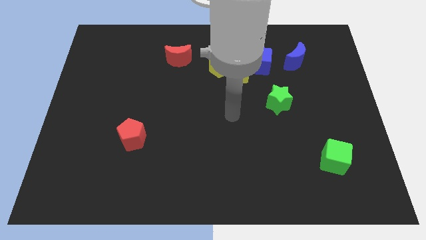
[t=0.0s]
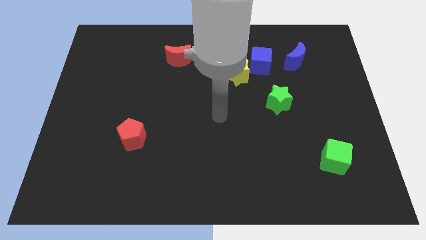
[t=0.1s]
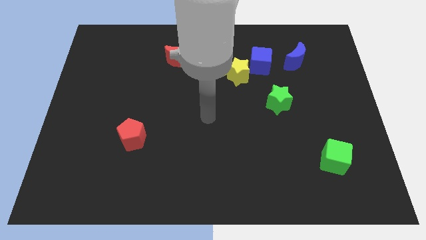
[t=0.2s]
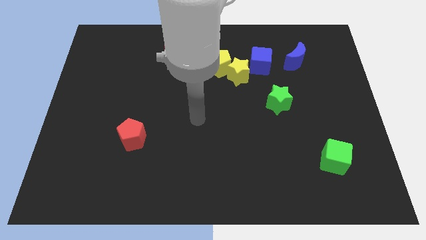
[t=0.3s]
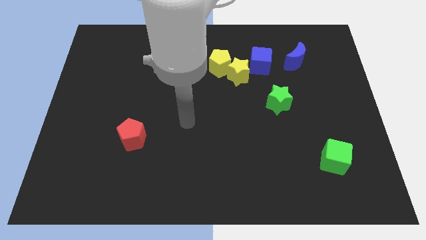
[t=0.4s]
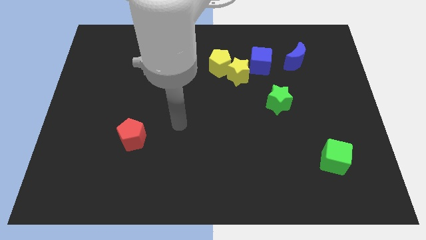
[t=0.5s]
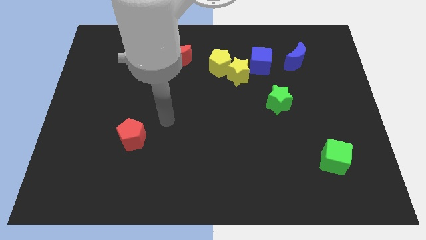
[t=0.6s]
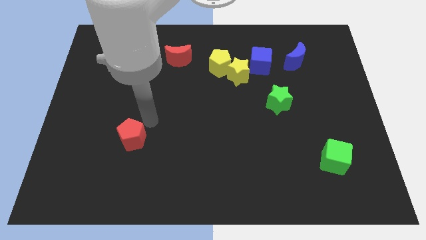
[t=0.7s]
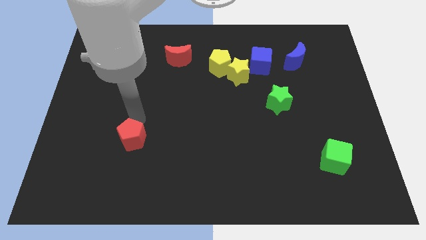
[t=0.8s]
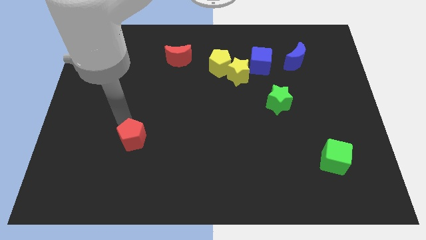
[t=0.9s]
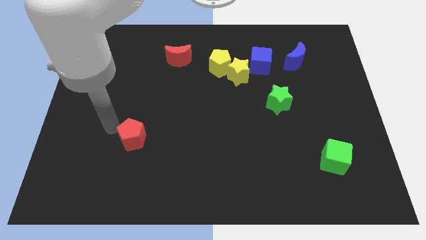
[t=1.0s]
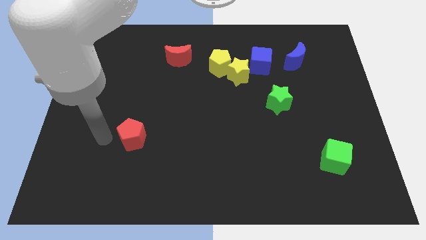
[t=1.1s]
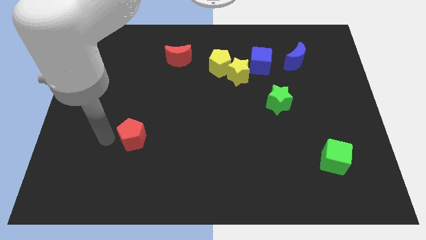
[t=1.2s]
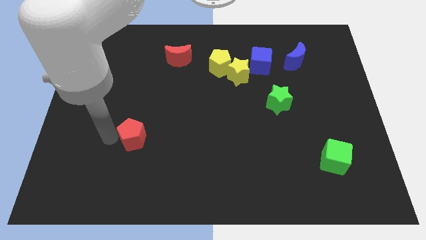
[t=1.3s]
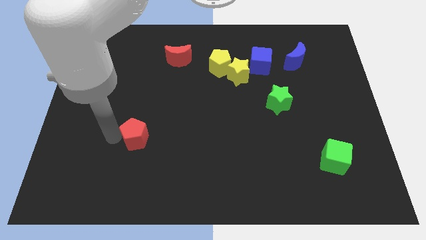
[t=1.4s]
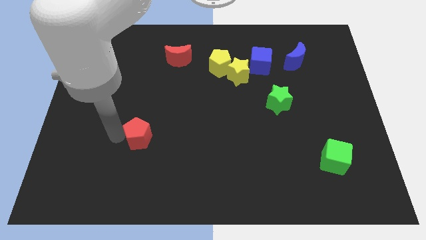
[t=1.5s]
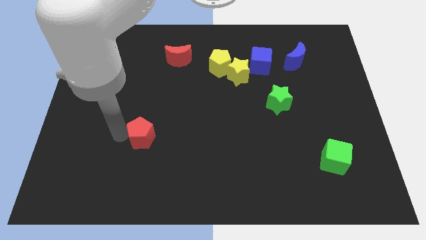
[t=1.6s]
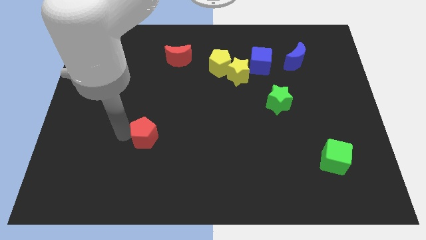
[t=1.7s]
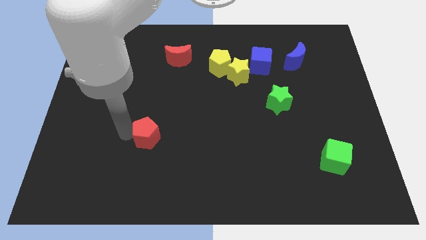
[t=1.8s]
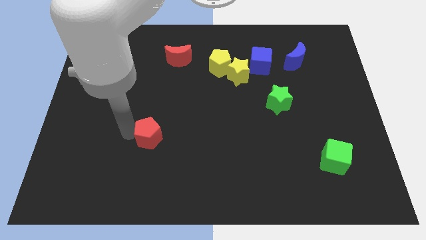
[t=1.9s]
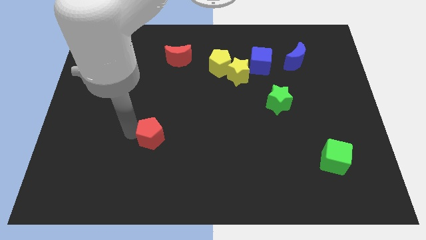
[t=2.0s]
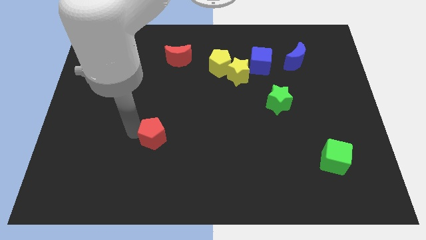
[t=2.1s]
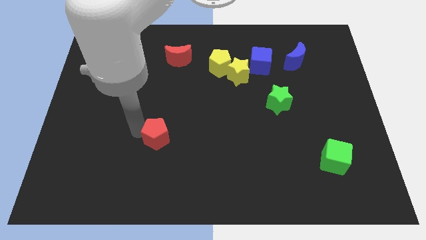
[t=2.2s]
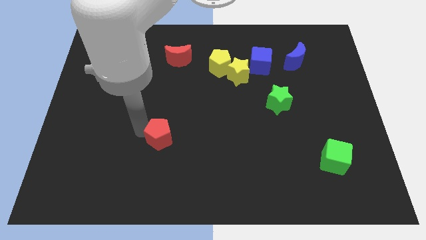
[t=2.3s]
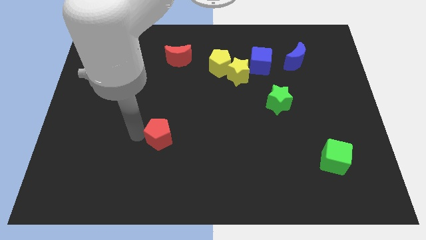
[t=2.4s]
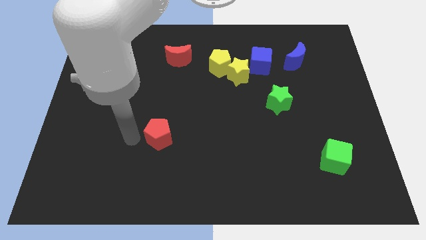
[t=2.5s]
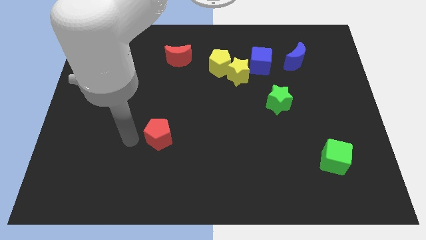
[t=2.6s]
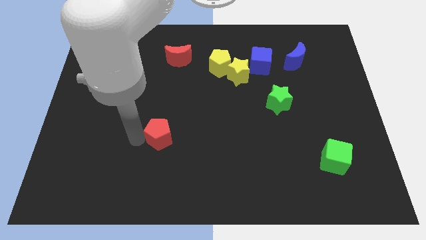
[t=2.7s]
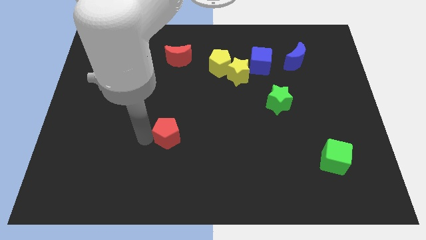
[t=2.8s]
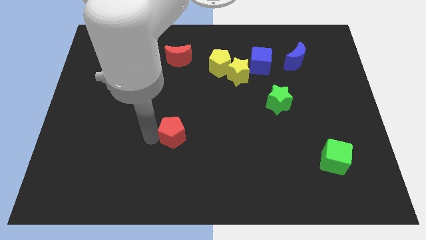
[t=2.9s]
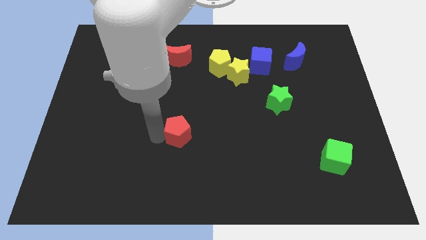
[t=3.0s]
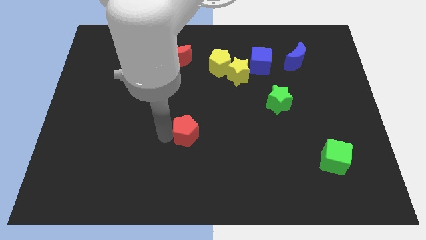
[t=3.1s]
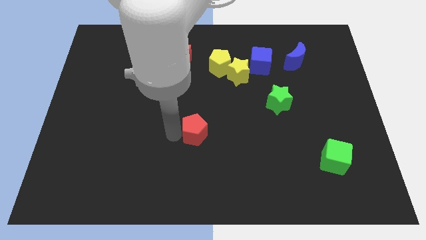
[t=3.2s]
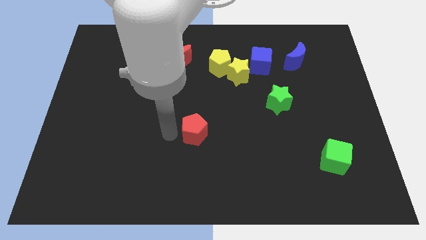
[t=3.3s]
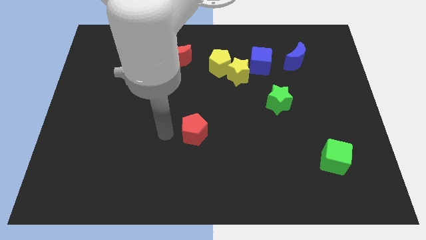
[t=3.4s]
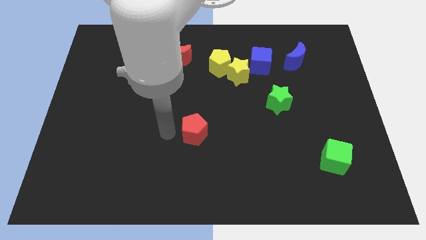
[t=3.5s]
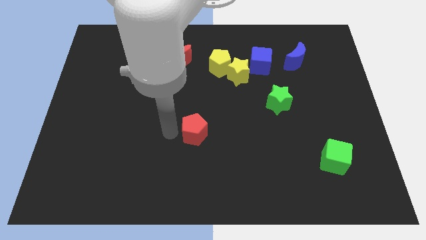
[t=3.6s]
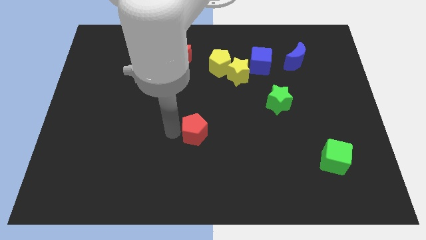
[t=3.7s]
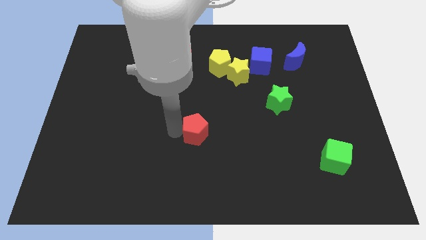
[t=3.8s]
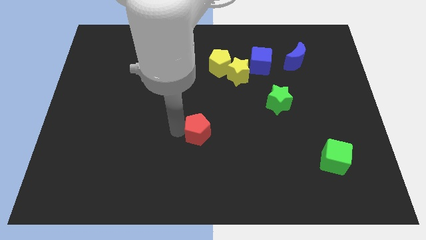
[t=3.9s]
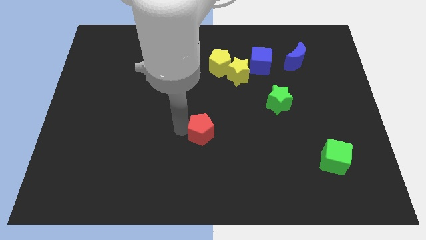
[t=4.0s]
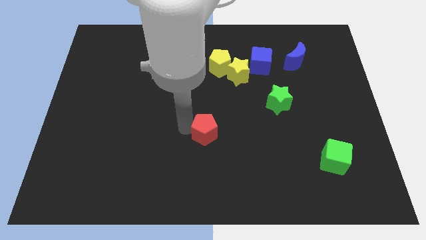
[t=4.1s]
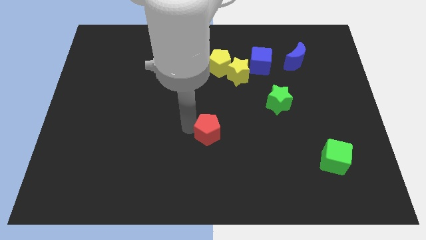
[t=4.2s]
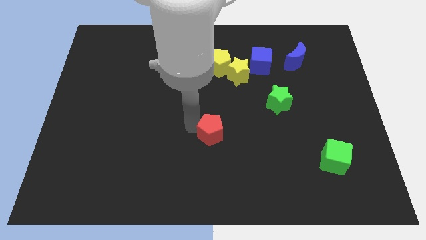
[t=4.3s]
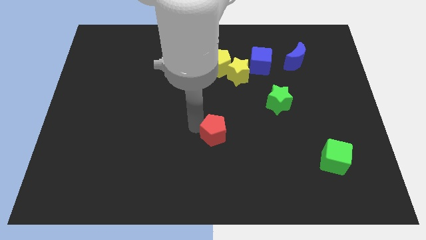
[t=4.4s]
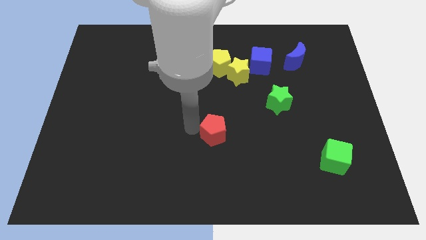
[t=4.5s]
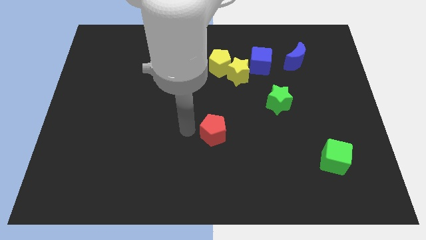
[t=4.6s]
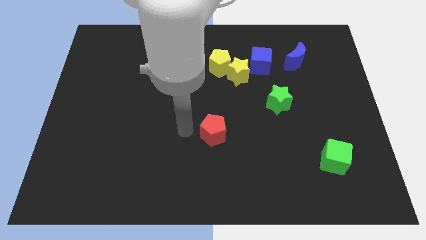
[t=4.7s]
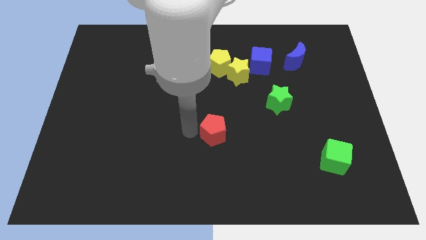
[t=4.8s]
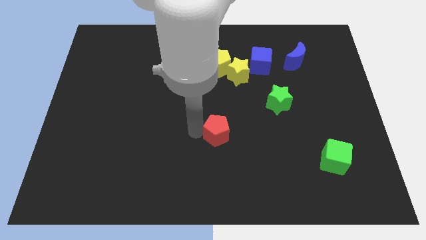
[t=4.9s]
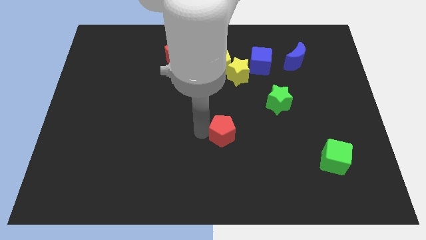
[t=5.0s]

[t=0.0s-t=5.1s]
push the red pentagon to the right

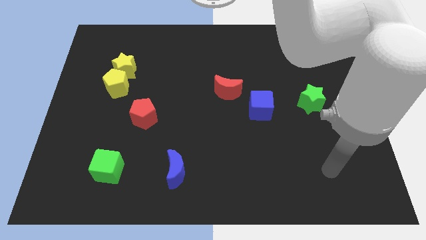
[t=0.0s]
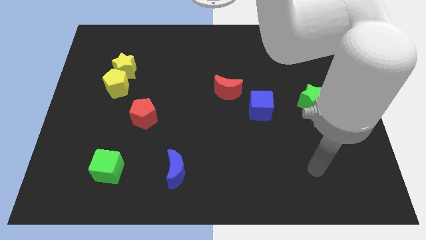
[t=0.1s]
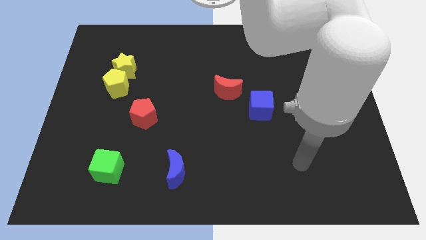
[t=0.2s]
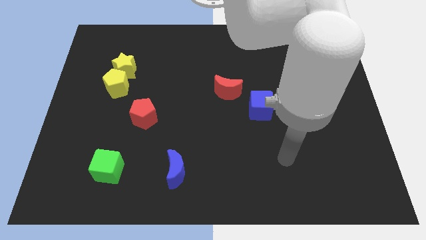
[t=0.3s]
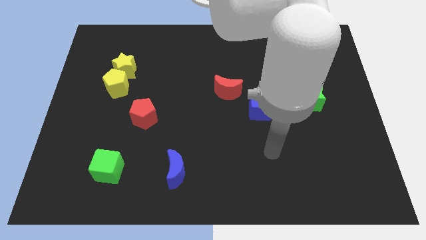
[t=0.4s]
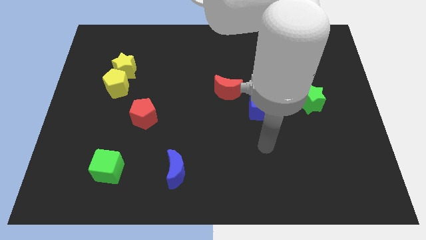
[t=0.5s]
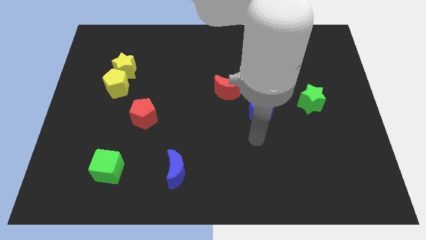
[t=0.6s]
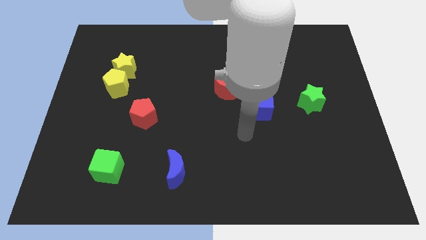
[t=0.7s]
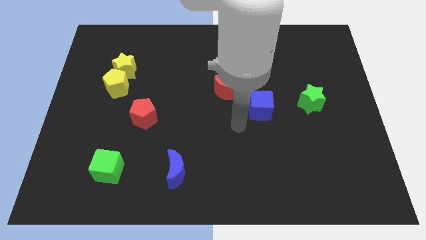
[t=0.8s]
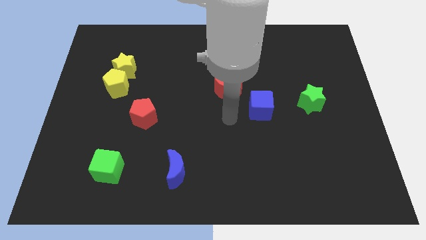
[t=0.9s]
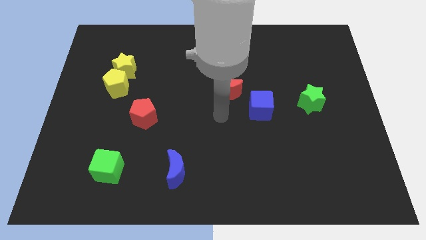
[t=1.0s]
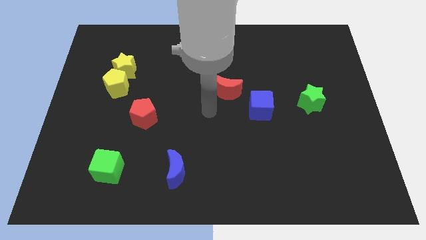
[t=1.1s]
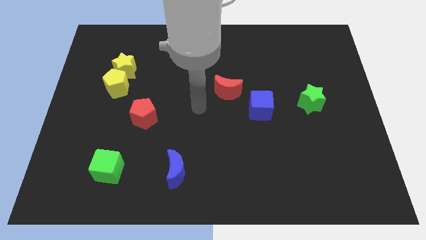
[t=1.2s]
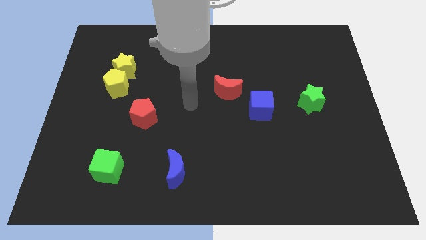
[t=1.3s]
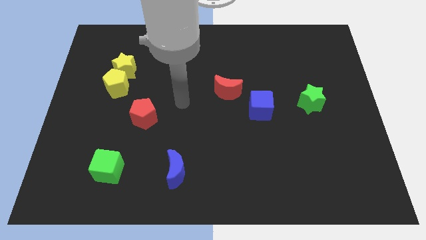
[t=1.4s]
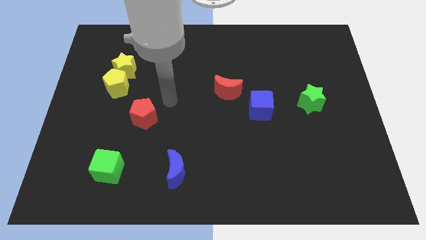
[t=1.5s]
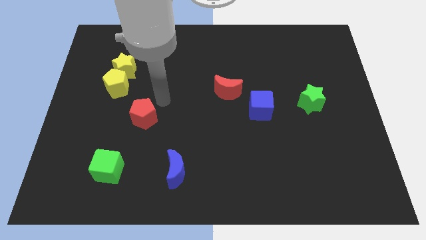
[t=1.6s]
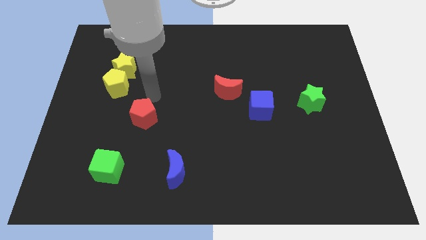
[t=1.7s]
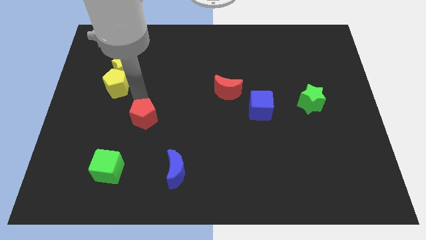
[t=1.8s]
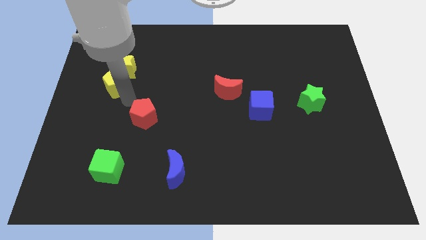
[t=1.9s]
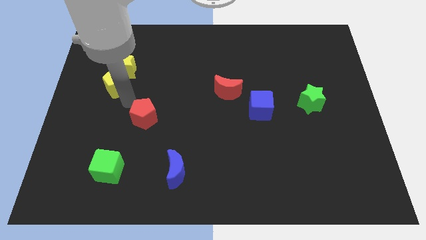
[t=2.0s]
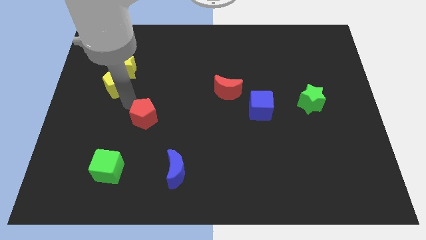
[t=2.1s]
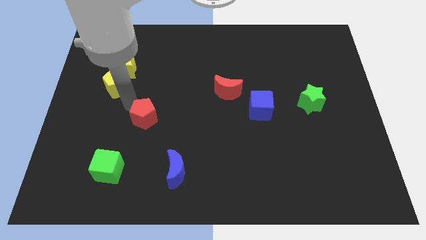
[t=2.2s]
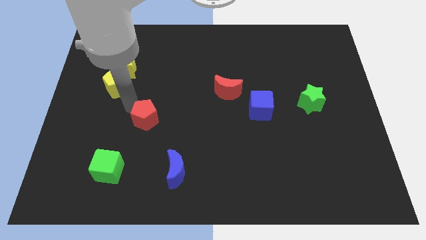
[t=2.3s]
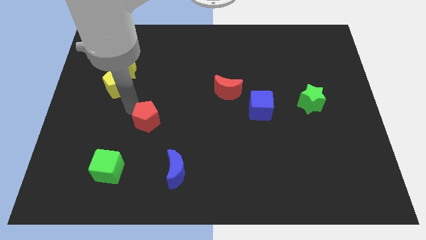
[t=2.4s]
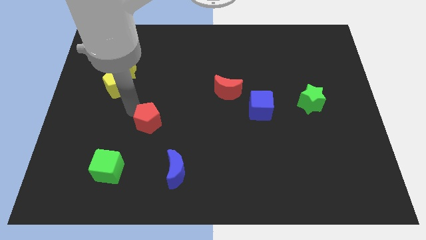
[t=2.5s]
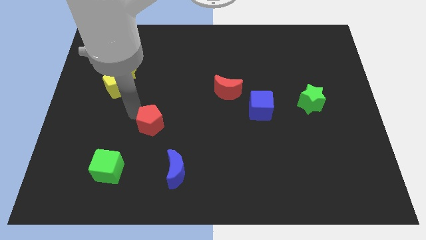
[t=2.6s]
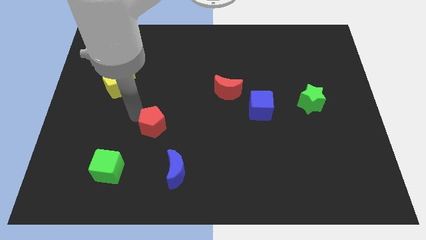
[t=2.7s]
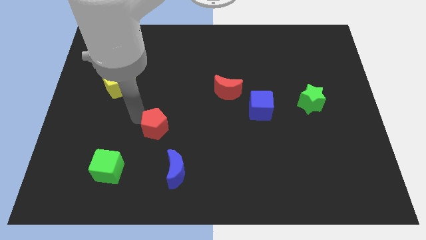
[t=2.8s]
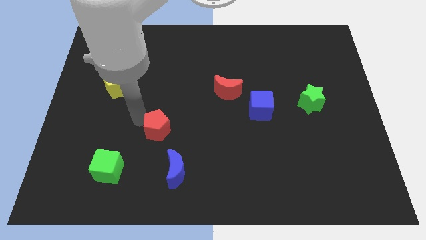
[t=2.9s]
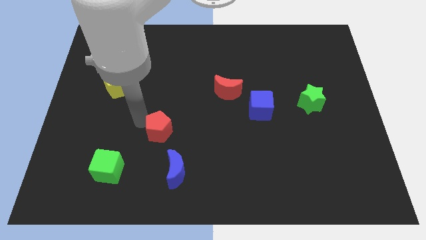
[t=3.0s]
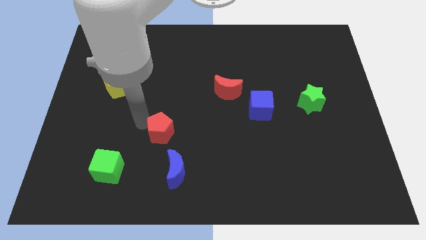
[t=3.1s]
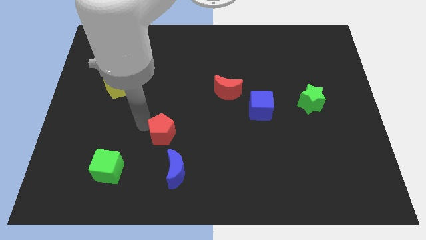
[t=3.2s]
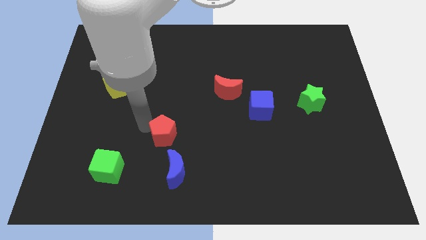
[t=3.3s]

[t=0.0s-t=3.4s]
push the red pentagon somewhat diagonally down and to the right
